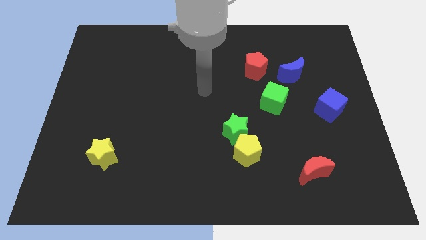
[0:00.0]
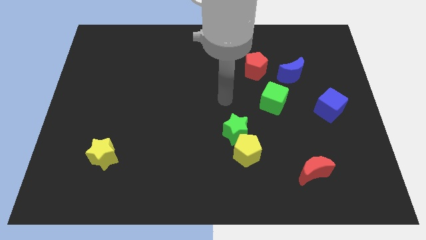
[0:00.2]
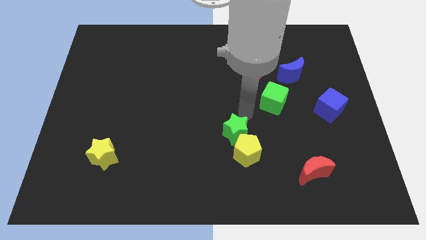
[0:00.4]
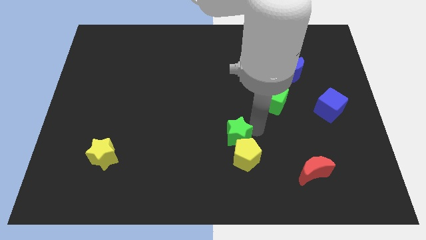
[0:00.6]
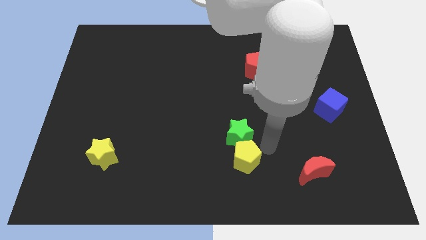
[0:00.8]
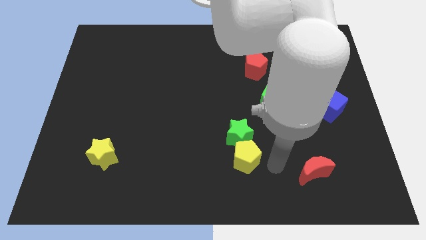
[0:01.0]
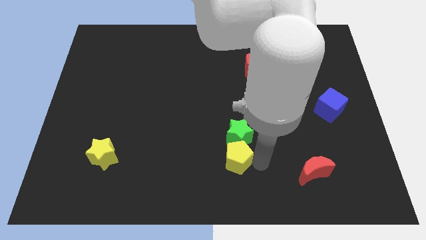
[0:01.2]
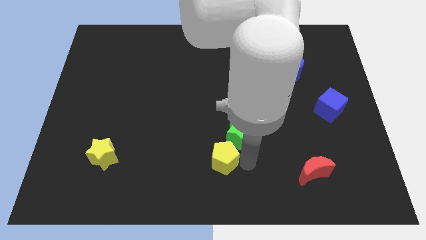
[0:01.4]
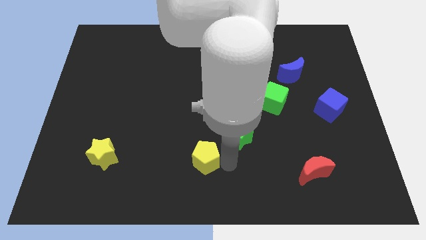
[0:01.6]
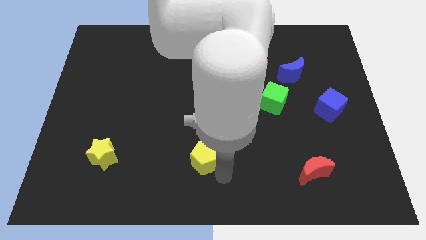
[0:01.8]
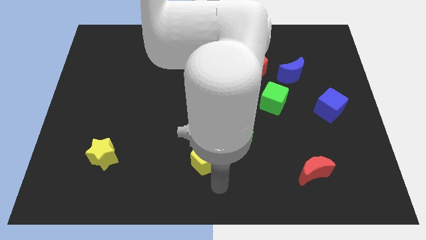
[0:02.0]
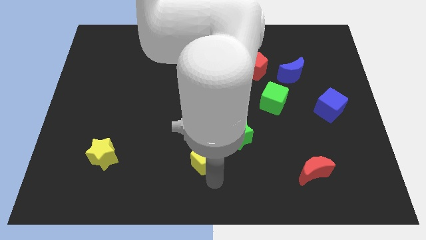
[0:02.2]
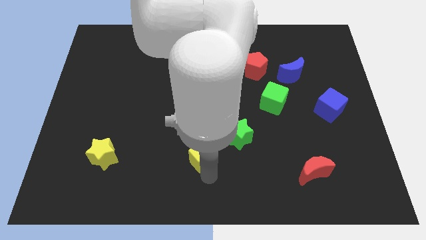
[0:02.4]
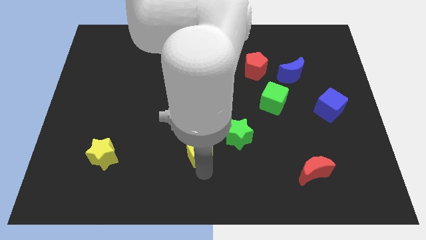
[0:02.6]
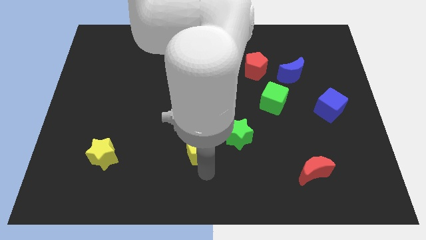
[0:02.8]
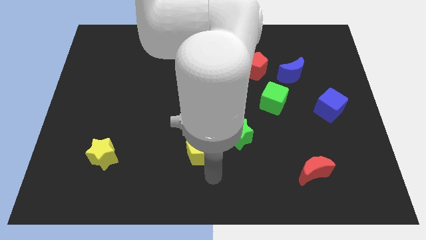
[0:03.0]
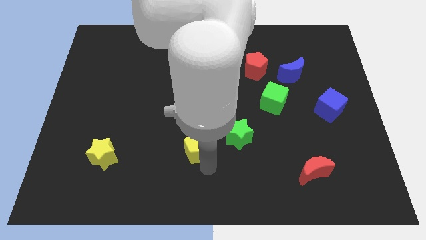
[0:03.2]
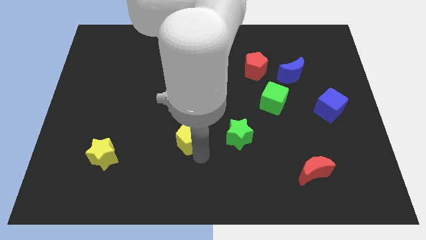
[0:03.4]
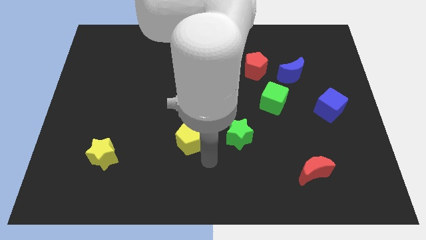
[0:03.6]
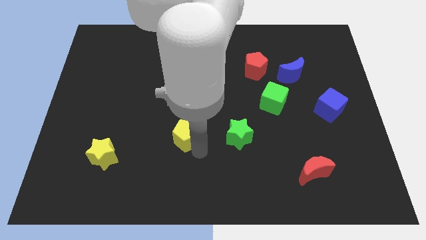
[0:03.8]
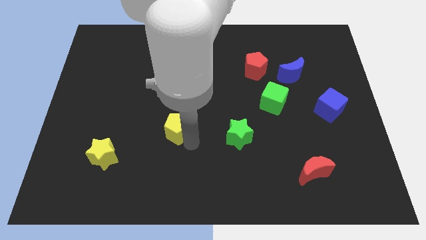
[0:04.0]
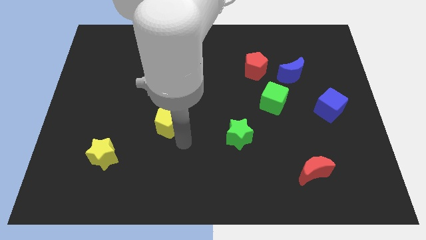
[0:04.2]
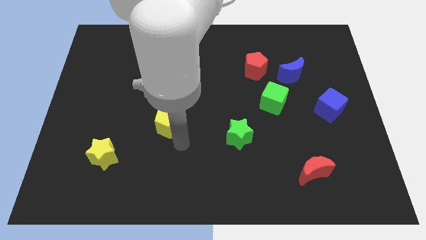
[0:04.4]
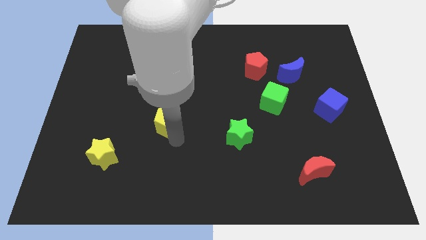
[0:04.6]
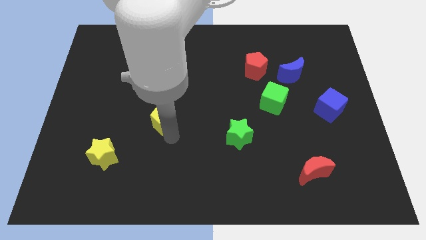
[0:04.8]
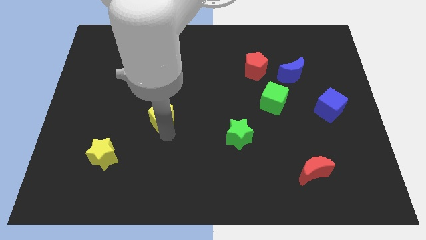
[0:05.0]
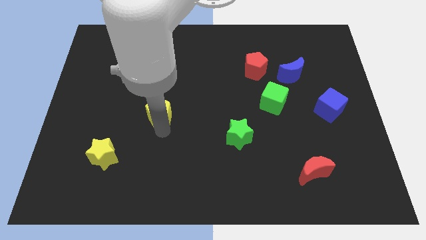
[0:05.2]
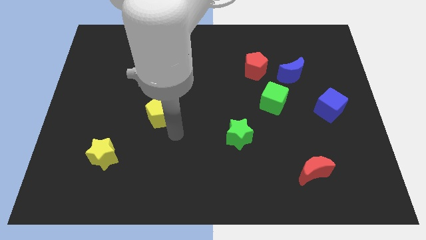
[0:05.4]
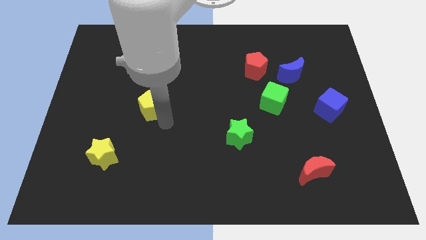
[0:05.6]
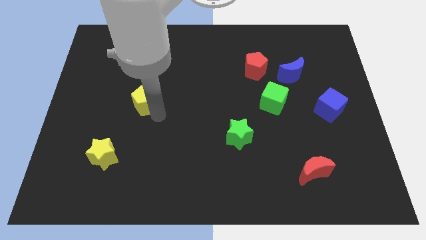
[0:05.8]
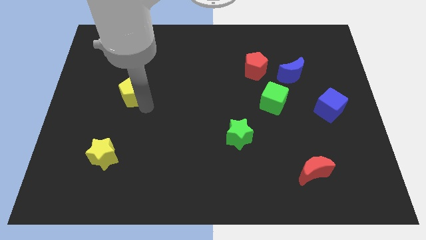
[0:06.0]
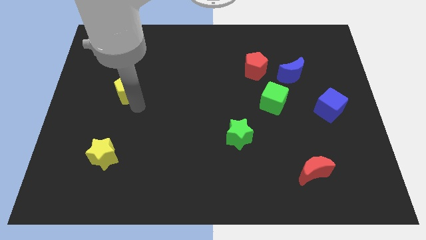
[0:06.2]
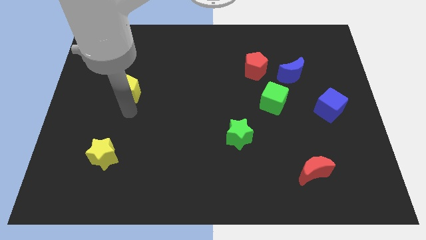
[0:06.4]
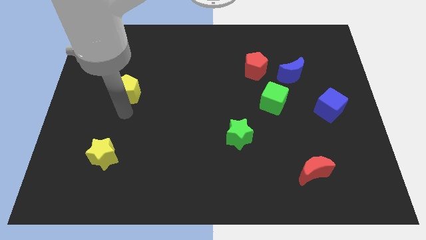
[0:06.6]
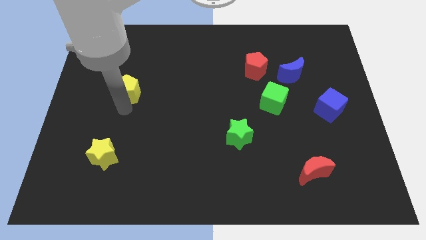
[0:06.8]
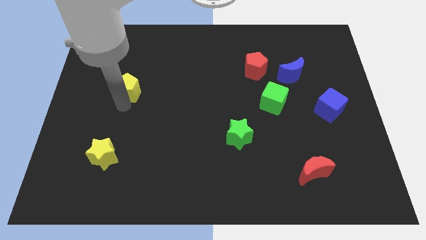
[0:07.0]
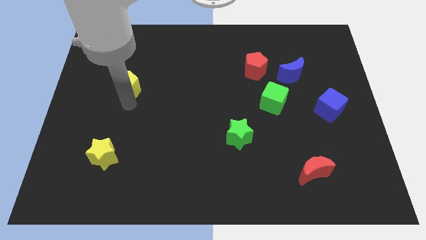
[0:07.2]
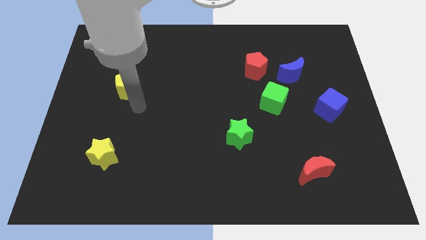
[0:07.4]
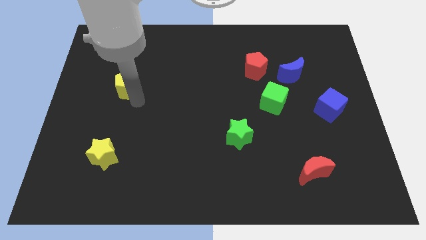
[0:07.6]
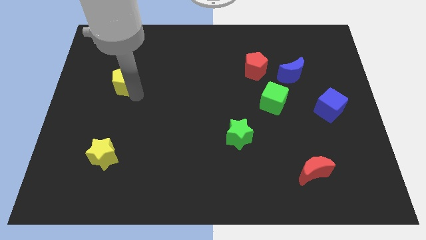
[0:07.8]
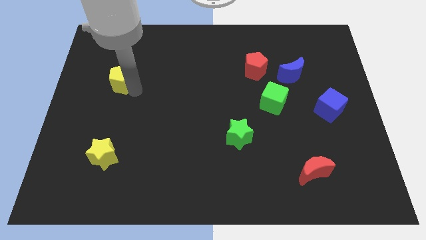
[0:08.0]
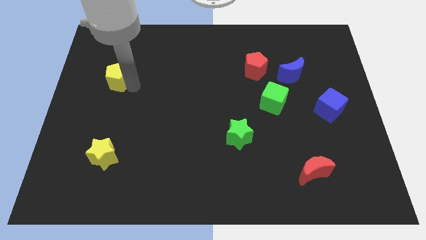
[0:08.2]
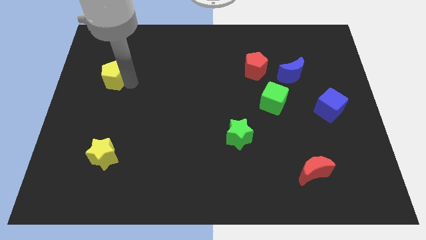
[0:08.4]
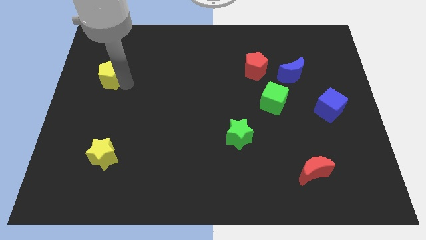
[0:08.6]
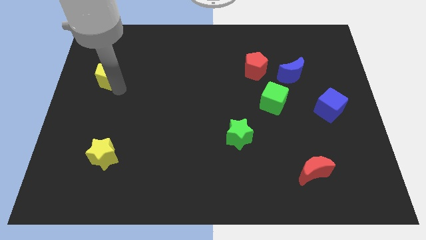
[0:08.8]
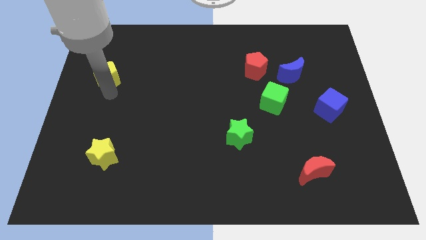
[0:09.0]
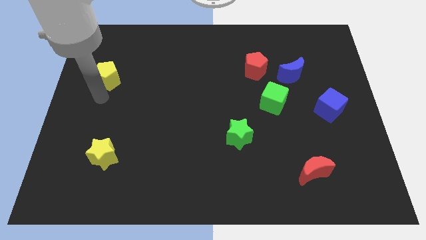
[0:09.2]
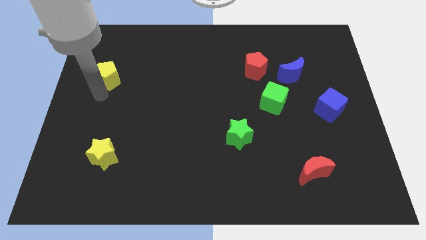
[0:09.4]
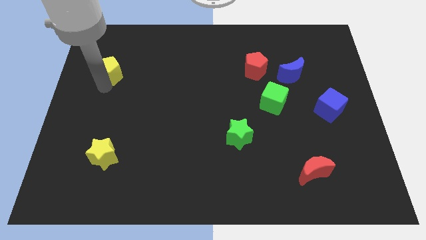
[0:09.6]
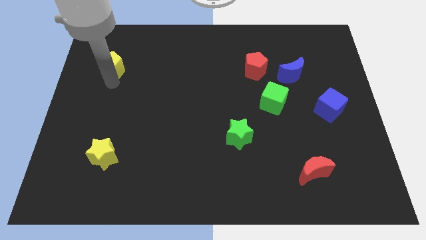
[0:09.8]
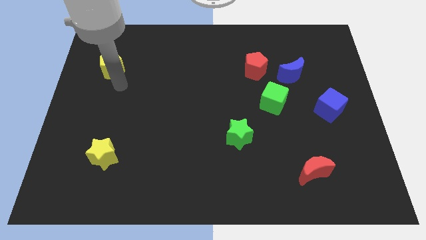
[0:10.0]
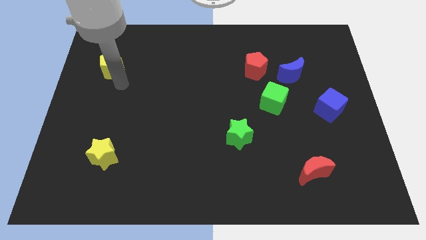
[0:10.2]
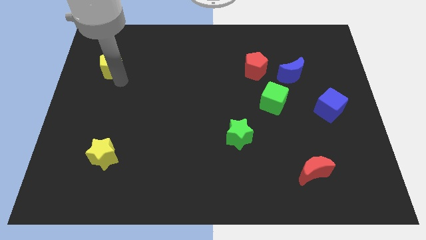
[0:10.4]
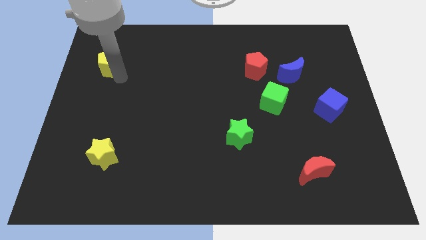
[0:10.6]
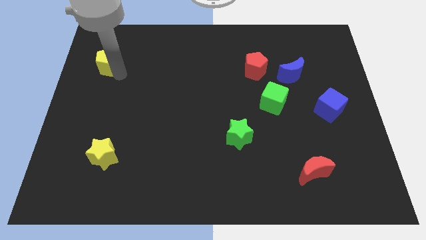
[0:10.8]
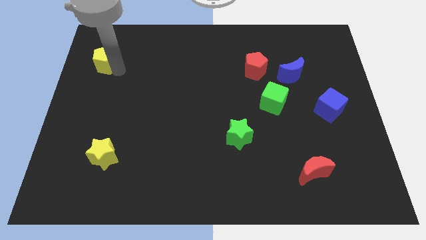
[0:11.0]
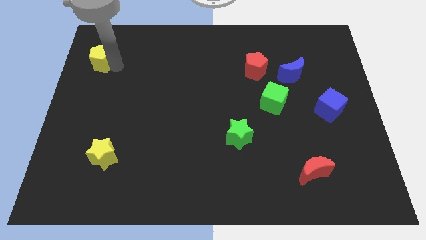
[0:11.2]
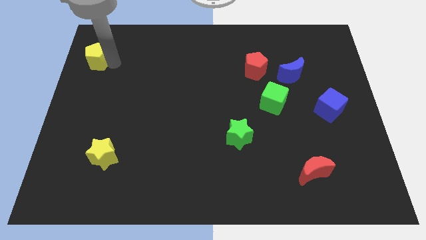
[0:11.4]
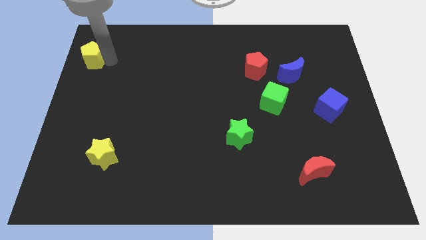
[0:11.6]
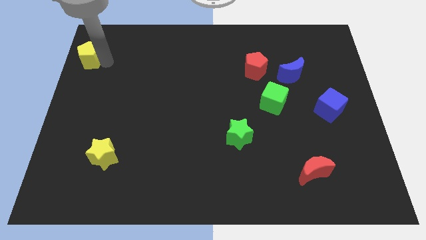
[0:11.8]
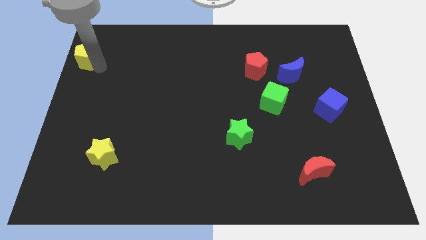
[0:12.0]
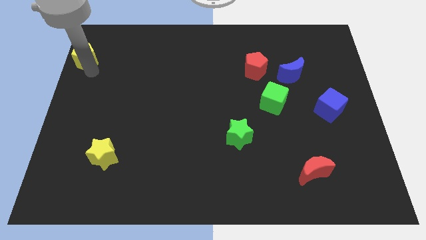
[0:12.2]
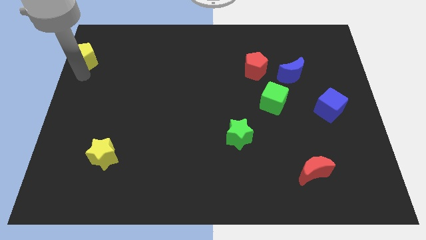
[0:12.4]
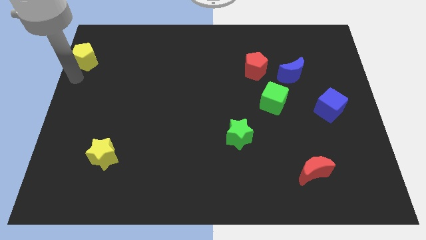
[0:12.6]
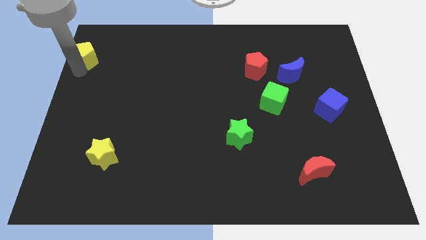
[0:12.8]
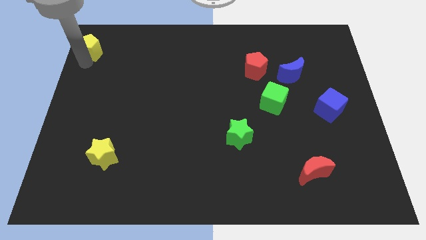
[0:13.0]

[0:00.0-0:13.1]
move the yellow pentagon to the upper left corner
